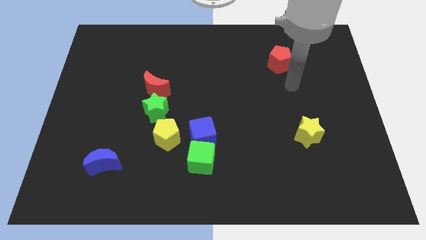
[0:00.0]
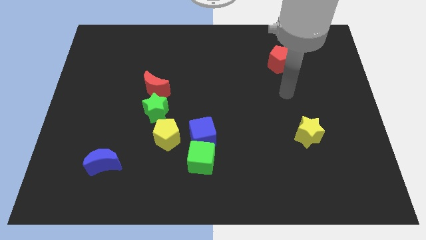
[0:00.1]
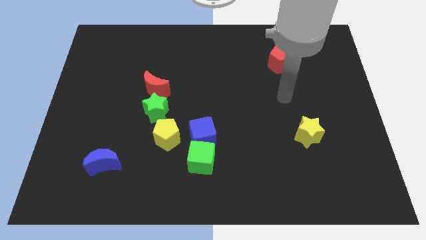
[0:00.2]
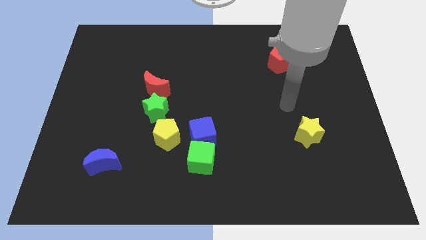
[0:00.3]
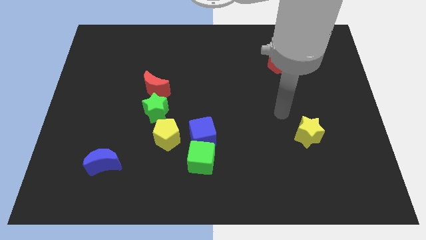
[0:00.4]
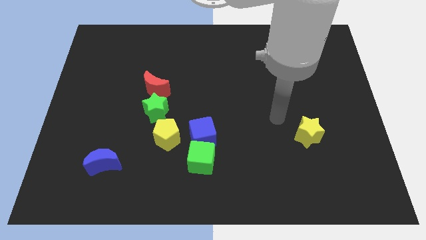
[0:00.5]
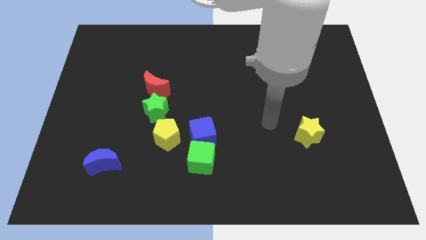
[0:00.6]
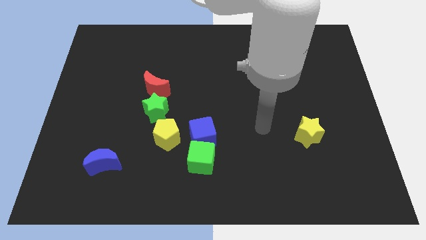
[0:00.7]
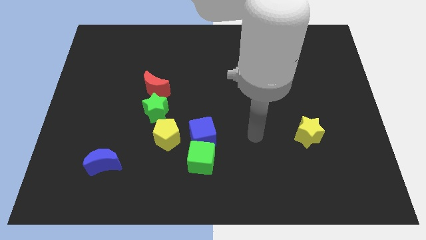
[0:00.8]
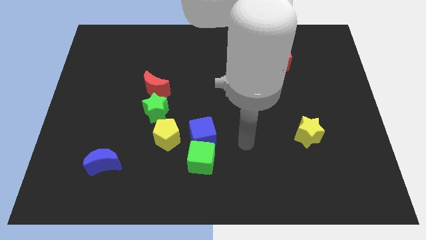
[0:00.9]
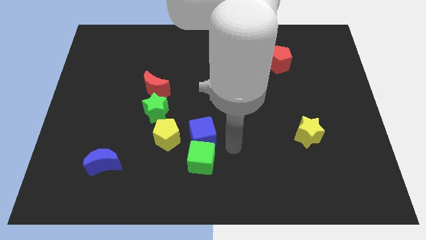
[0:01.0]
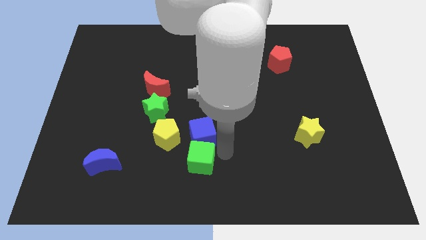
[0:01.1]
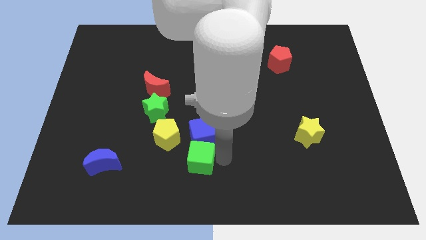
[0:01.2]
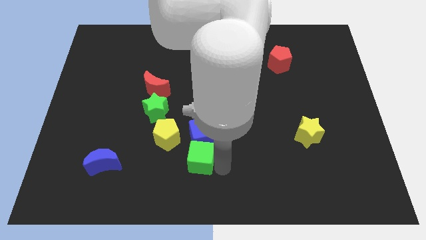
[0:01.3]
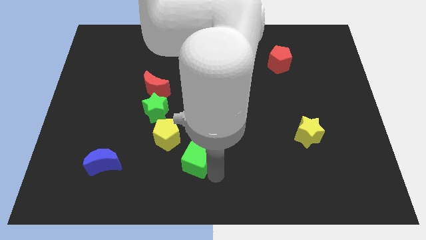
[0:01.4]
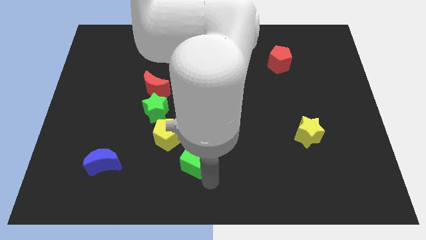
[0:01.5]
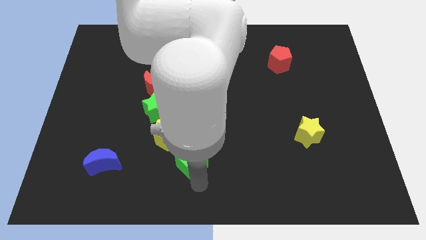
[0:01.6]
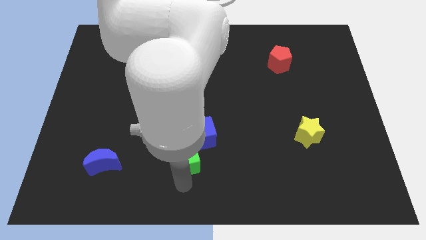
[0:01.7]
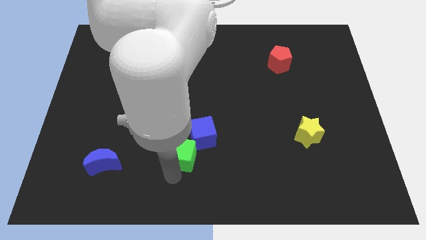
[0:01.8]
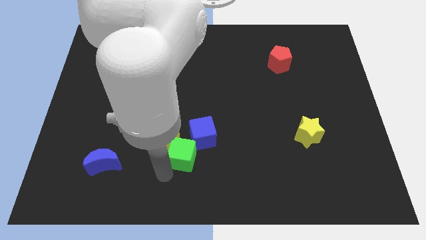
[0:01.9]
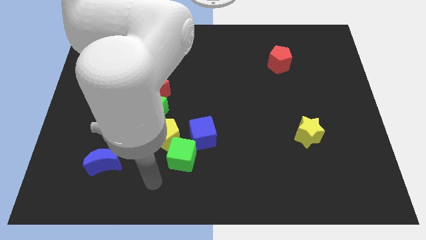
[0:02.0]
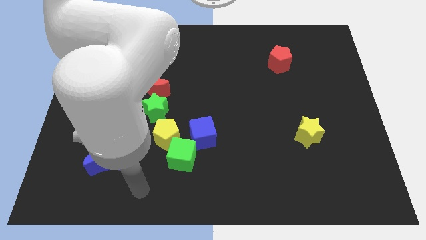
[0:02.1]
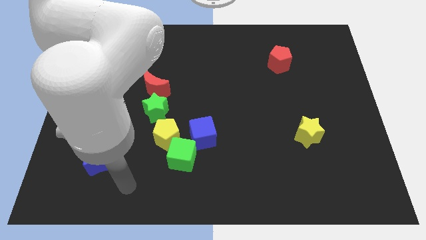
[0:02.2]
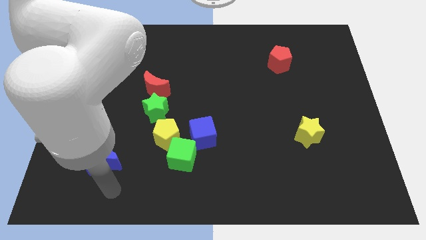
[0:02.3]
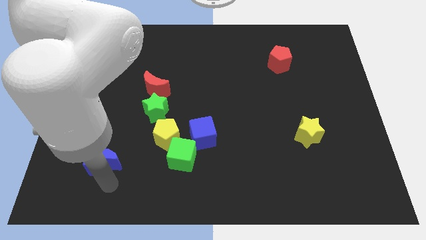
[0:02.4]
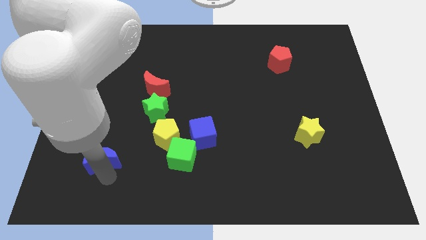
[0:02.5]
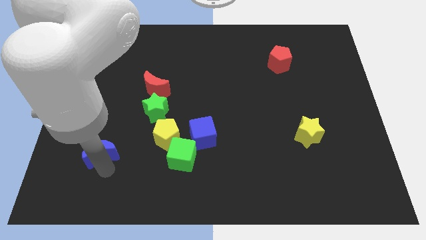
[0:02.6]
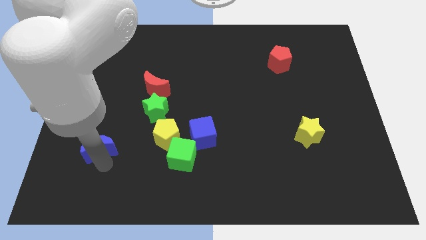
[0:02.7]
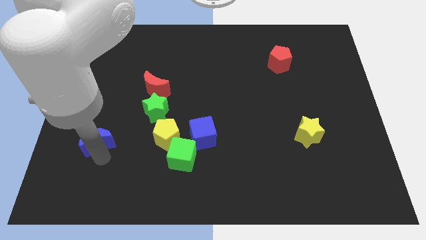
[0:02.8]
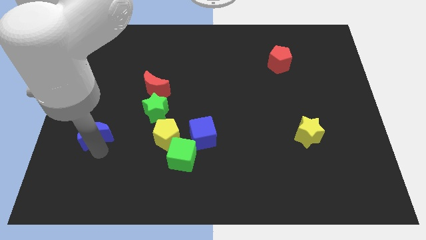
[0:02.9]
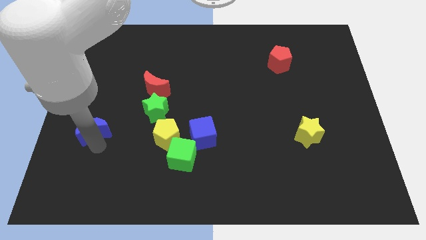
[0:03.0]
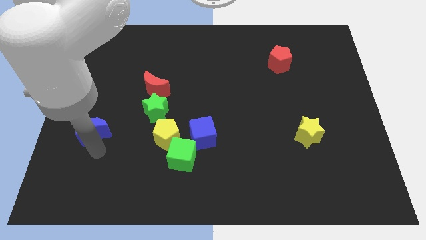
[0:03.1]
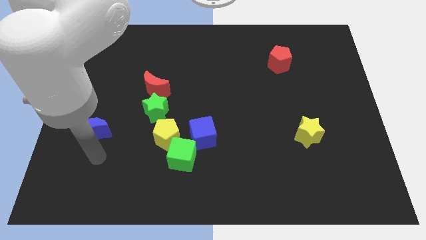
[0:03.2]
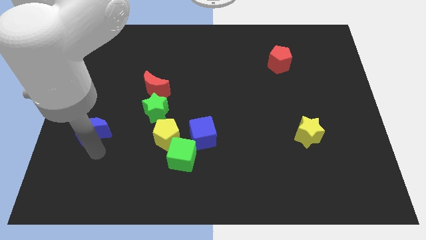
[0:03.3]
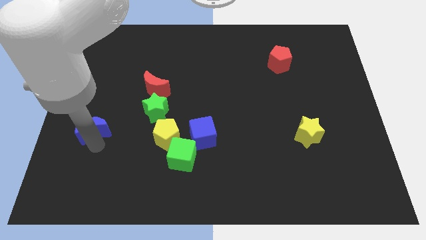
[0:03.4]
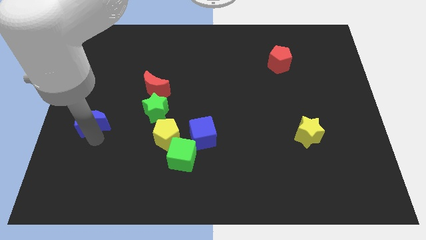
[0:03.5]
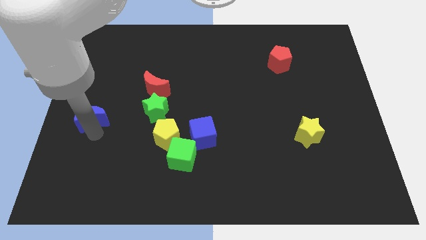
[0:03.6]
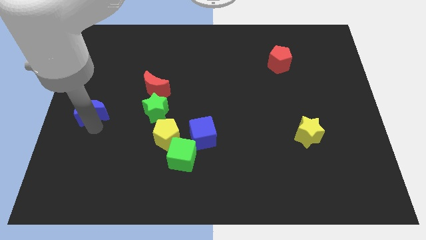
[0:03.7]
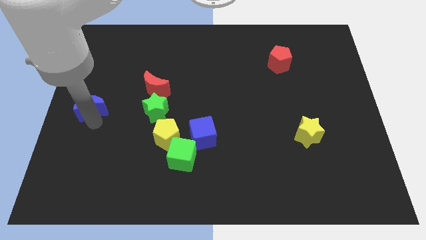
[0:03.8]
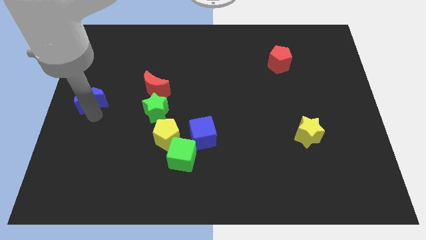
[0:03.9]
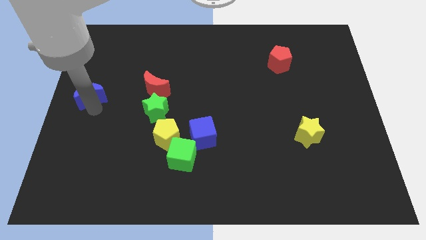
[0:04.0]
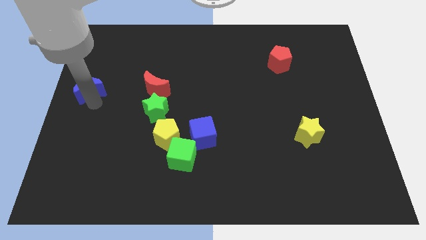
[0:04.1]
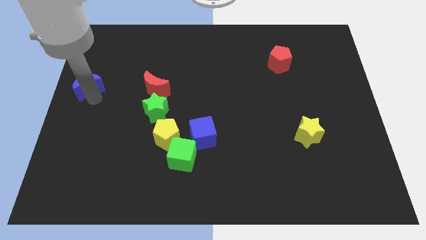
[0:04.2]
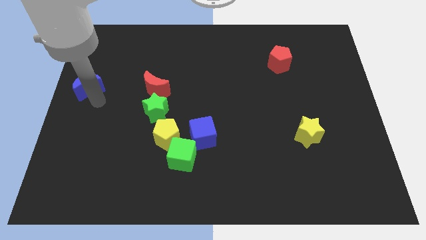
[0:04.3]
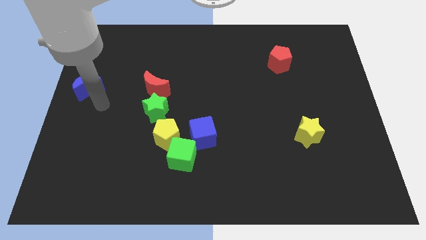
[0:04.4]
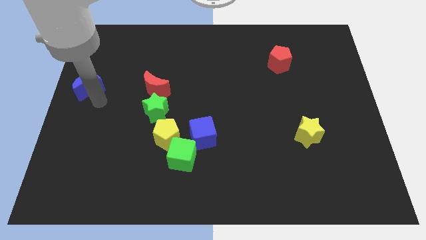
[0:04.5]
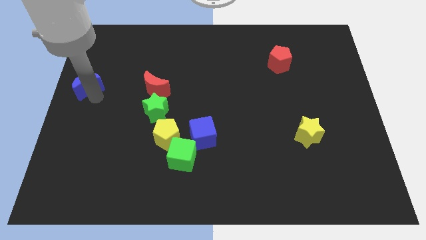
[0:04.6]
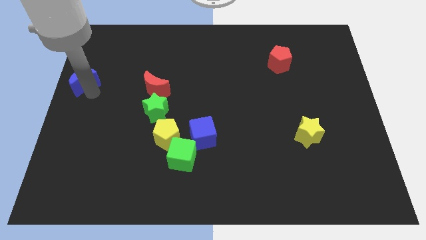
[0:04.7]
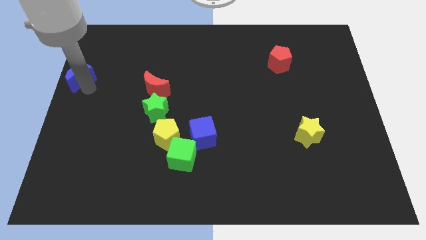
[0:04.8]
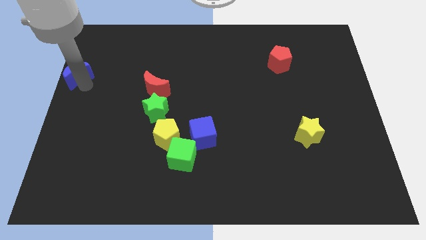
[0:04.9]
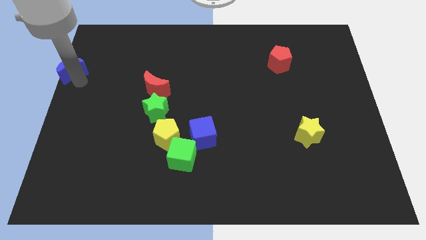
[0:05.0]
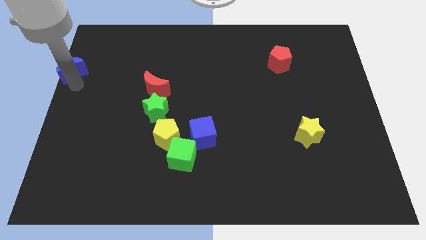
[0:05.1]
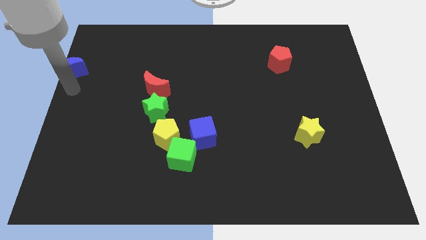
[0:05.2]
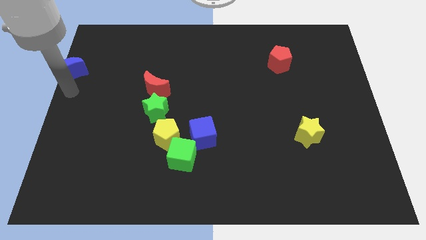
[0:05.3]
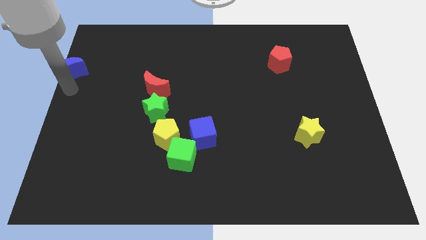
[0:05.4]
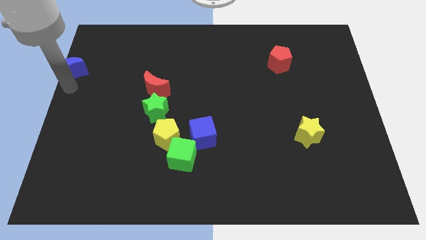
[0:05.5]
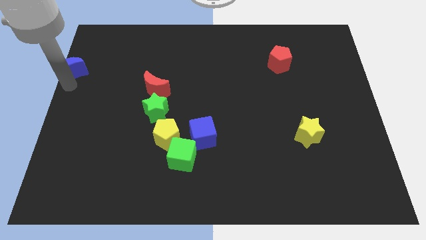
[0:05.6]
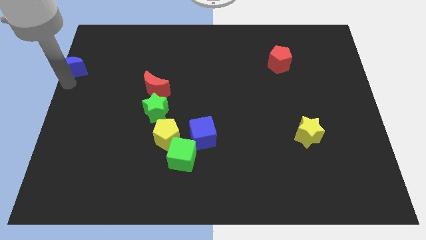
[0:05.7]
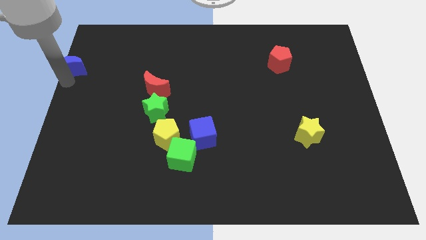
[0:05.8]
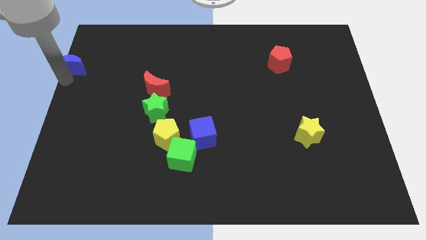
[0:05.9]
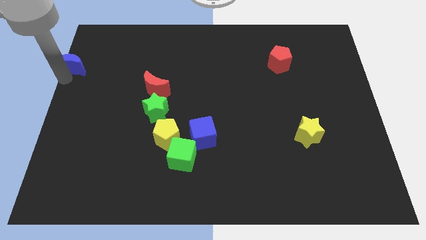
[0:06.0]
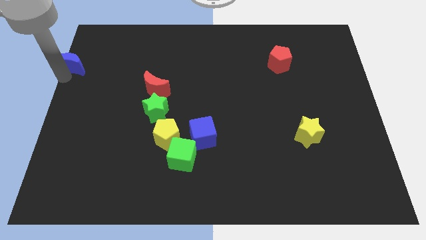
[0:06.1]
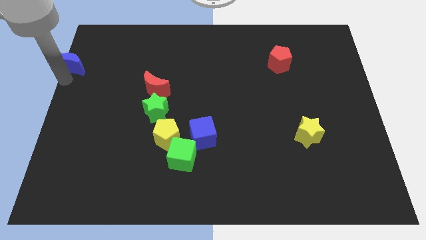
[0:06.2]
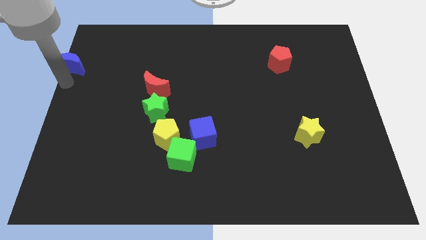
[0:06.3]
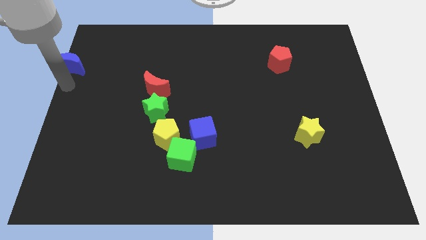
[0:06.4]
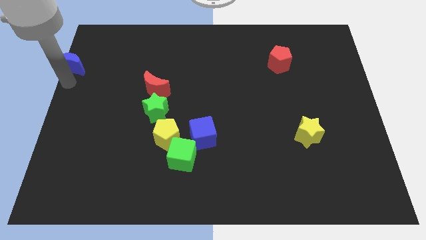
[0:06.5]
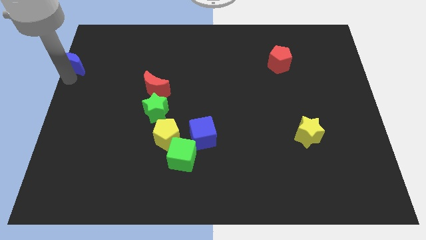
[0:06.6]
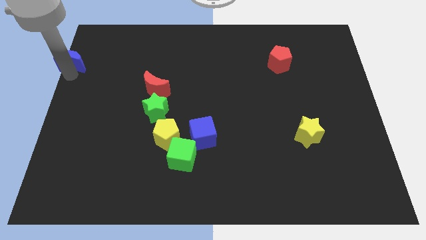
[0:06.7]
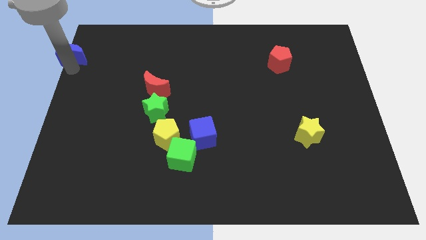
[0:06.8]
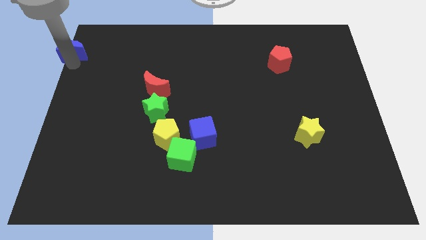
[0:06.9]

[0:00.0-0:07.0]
put the blue moon to the top left of the board
